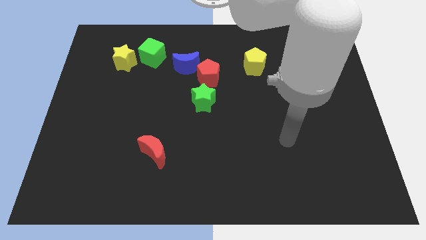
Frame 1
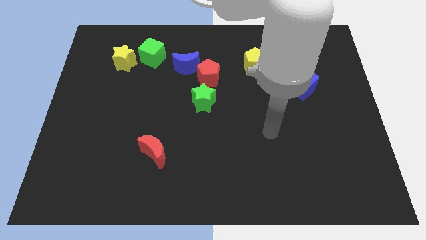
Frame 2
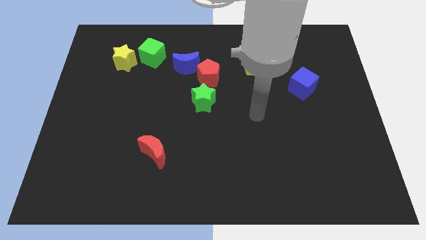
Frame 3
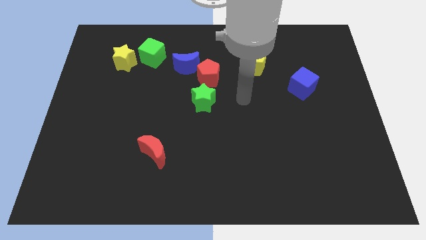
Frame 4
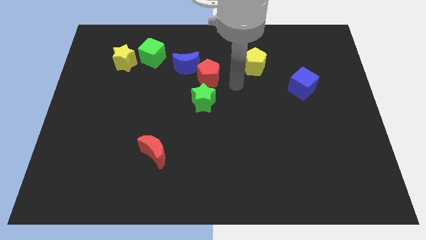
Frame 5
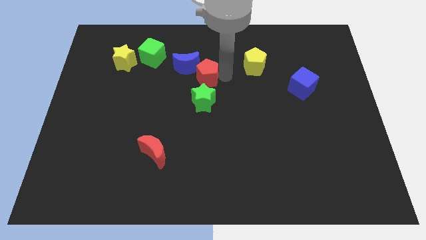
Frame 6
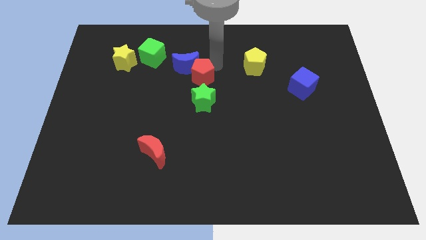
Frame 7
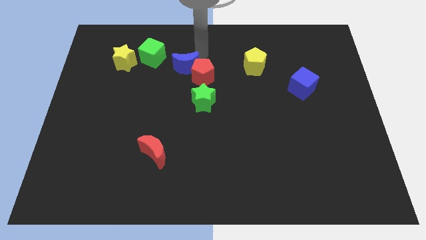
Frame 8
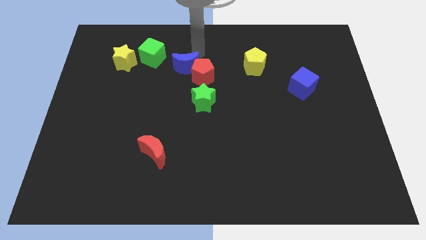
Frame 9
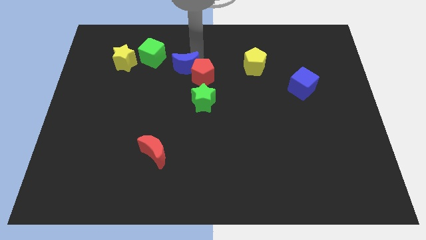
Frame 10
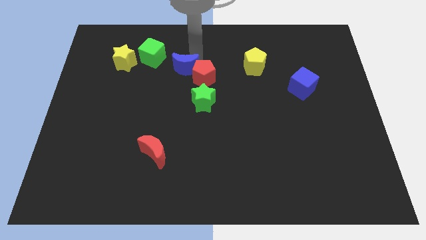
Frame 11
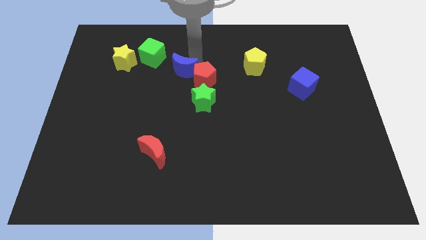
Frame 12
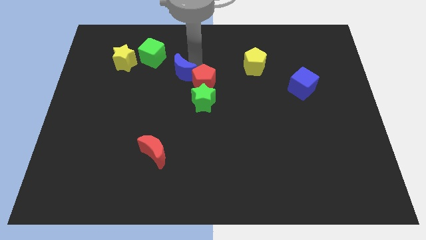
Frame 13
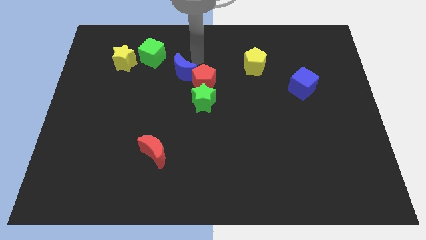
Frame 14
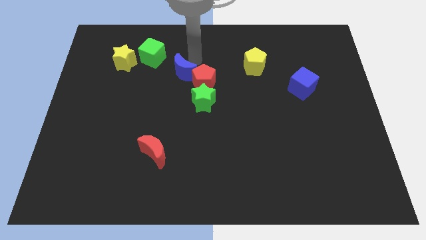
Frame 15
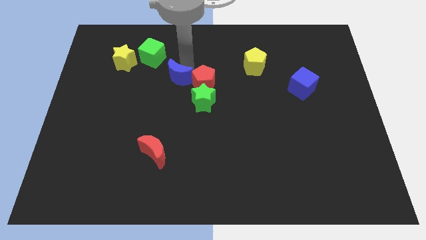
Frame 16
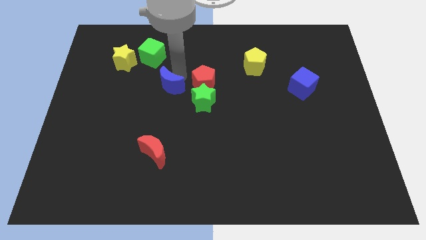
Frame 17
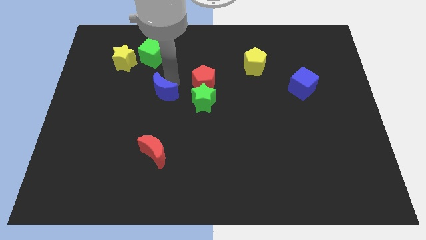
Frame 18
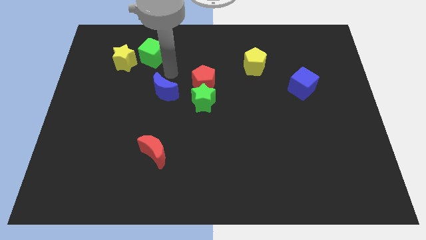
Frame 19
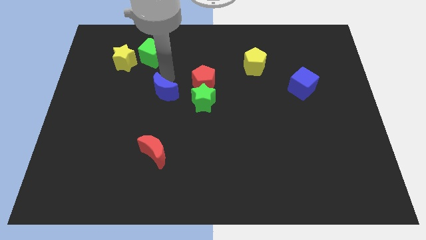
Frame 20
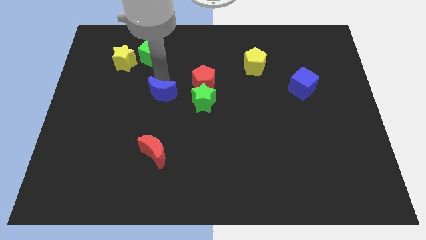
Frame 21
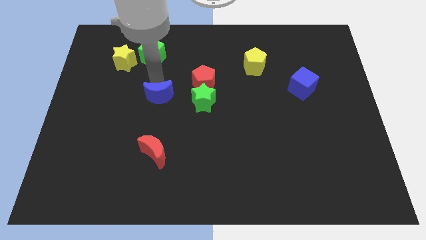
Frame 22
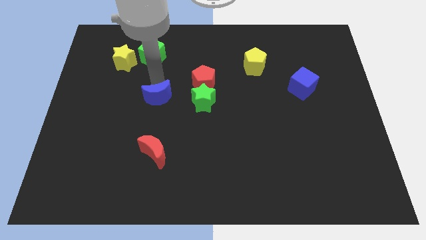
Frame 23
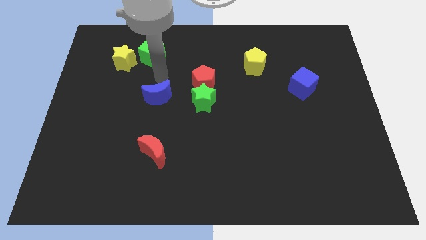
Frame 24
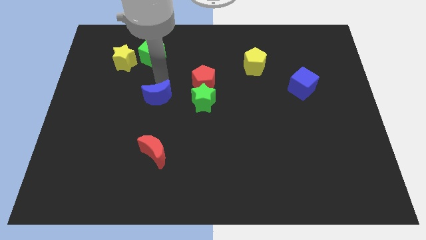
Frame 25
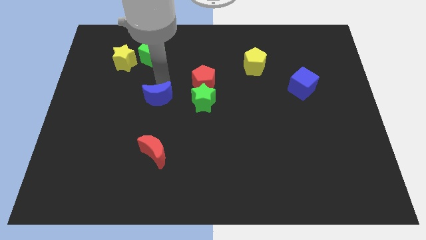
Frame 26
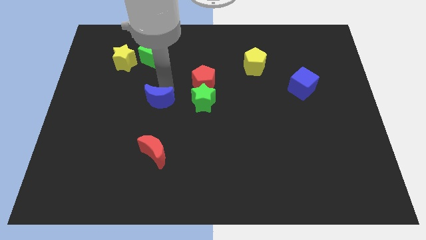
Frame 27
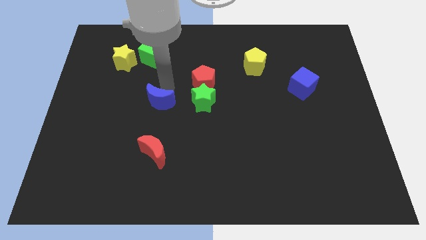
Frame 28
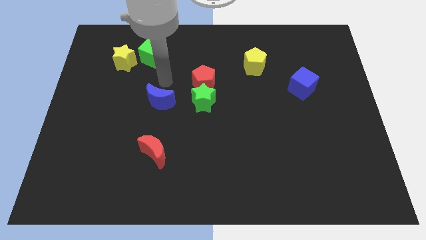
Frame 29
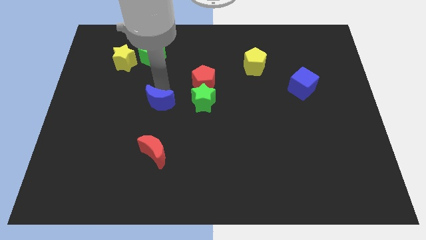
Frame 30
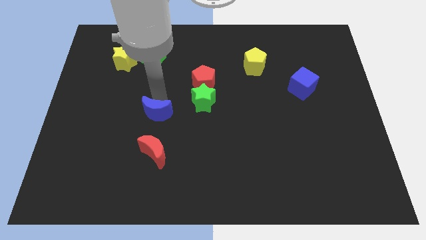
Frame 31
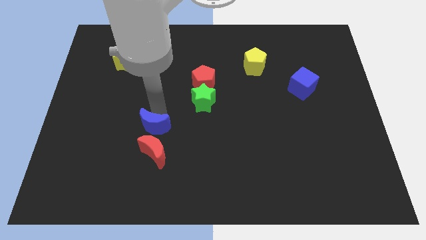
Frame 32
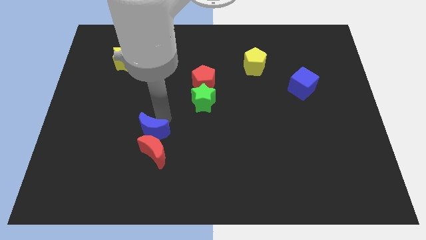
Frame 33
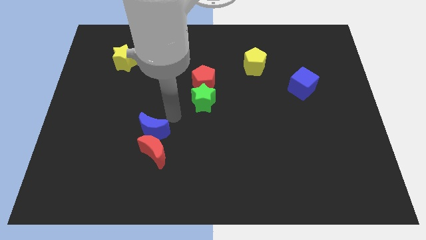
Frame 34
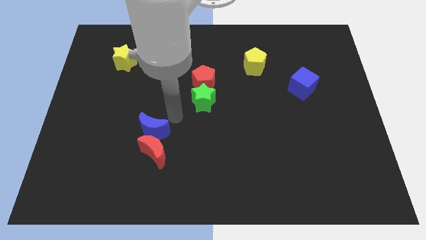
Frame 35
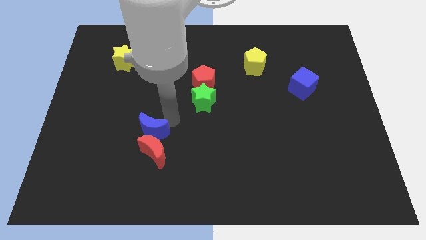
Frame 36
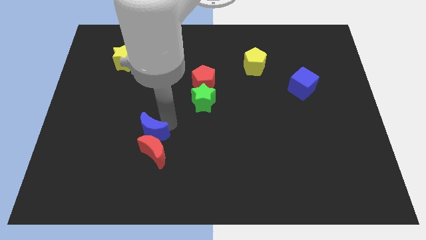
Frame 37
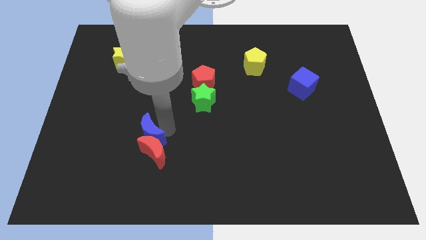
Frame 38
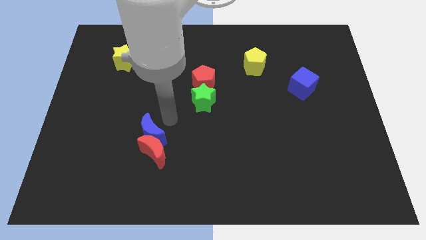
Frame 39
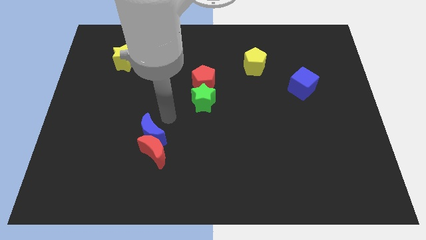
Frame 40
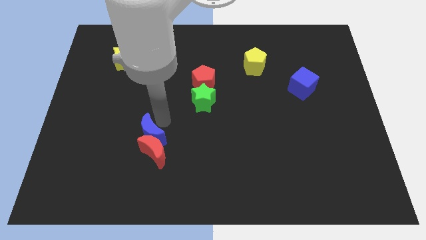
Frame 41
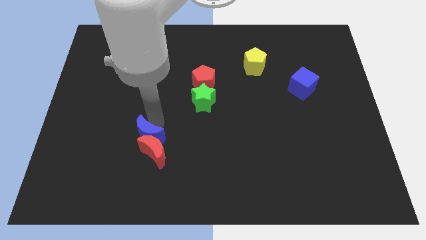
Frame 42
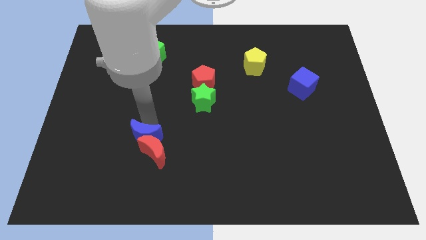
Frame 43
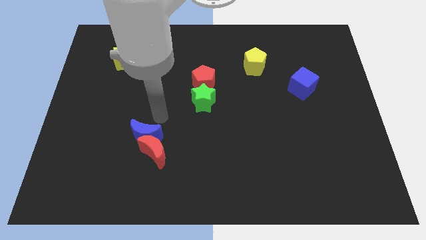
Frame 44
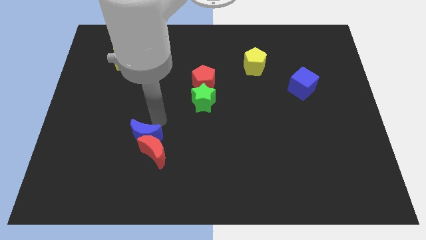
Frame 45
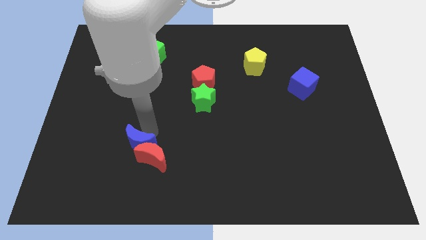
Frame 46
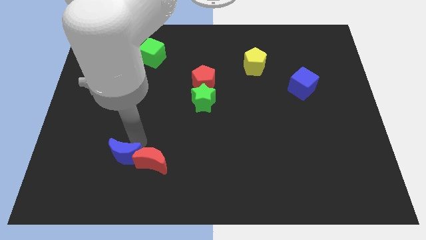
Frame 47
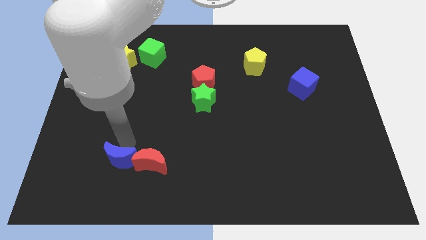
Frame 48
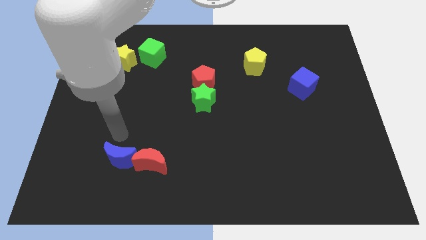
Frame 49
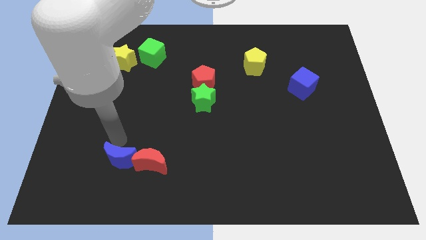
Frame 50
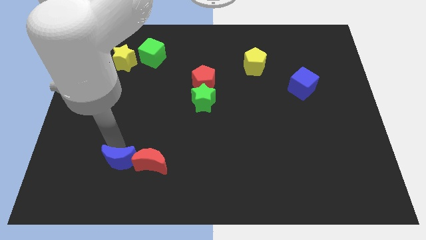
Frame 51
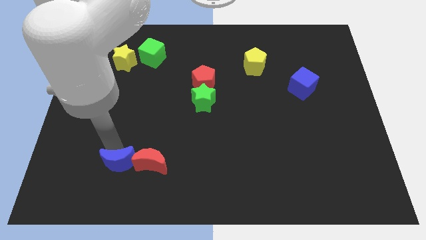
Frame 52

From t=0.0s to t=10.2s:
slide the blue moon to the bottom left of the red moon

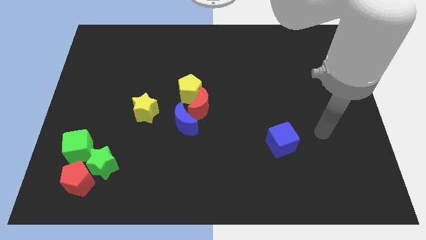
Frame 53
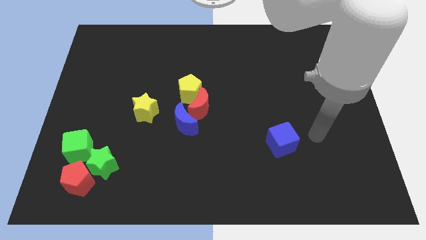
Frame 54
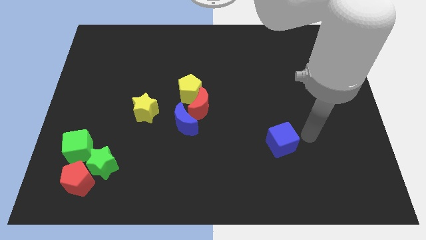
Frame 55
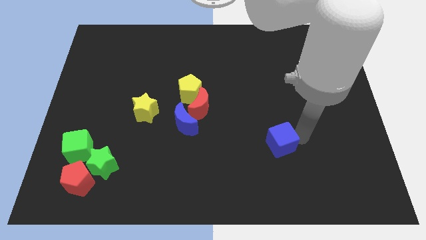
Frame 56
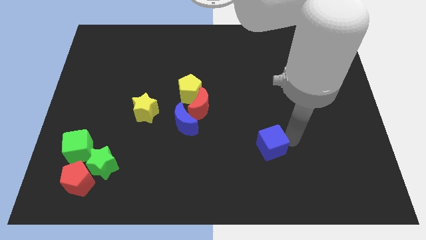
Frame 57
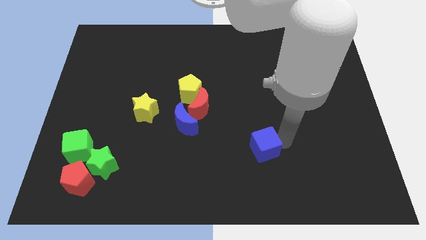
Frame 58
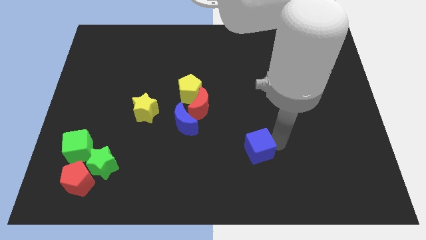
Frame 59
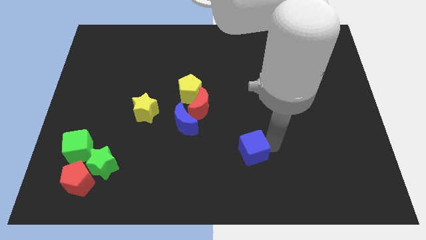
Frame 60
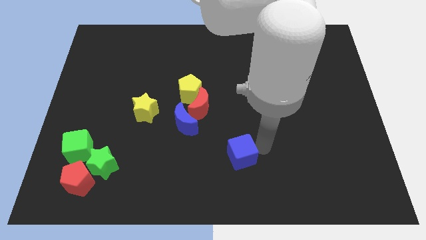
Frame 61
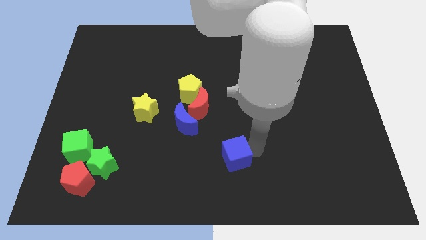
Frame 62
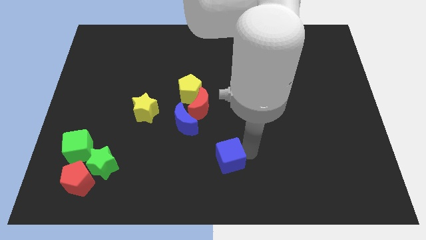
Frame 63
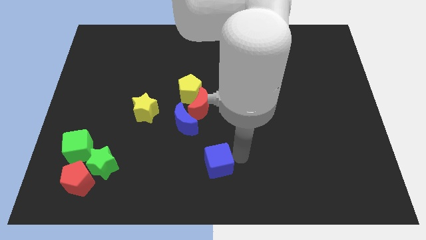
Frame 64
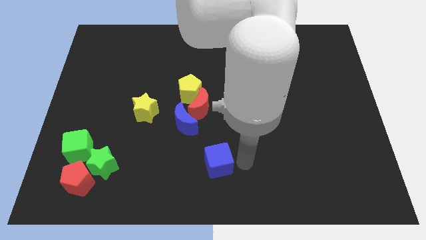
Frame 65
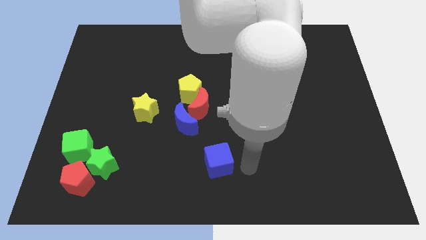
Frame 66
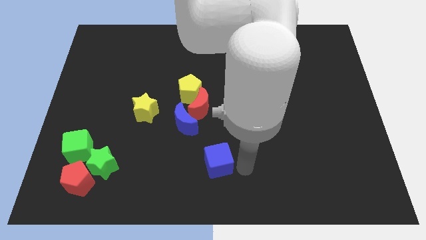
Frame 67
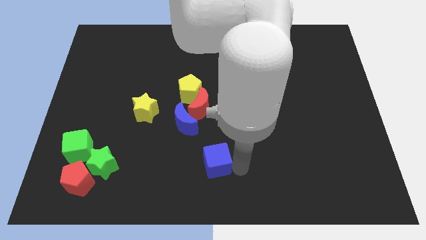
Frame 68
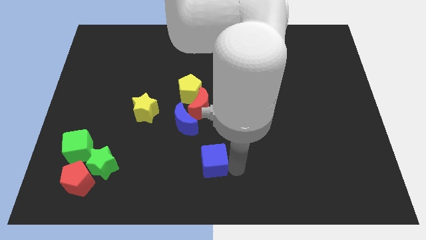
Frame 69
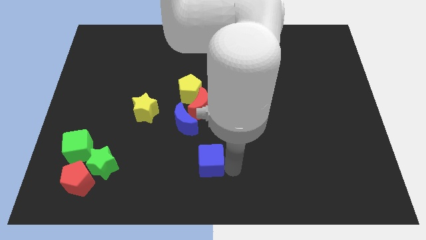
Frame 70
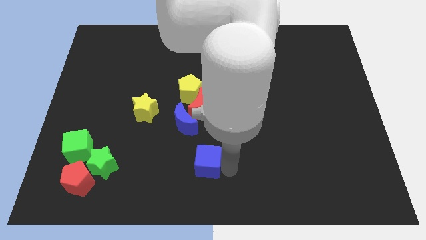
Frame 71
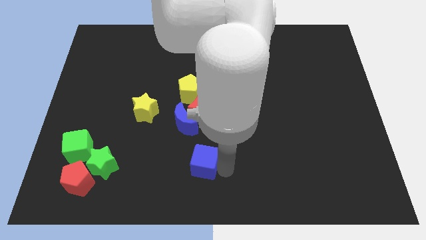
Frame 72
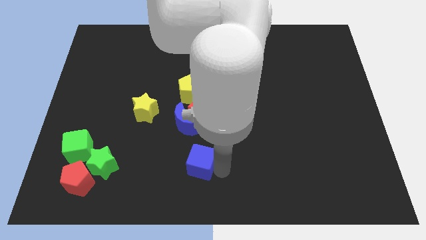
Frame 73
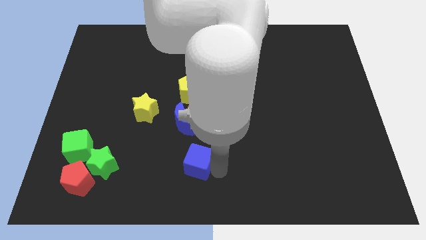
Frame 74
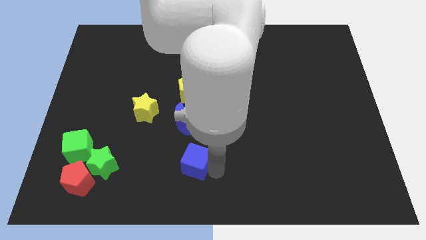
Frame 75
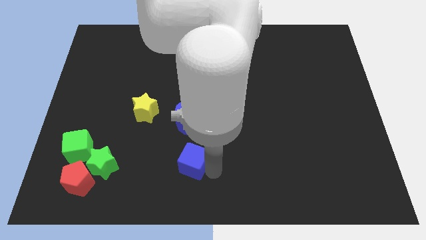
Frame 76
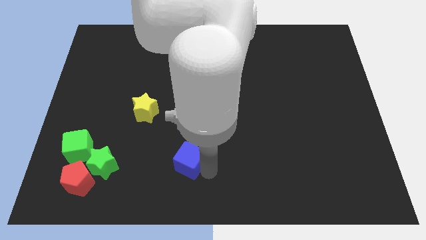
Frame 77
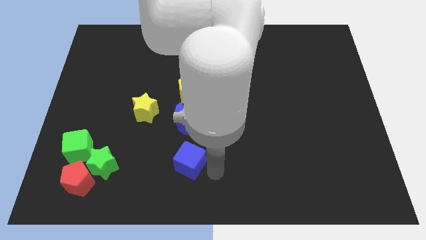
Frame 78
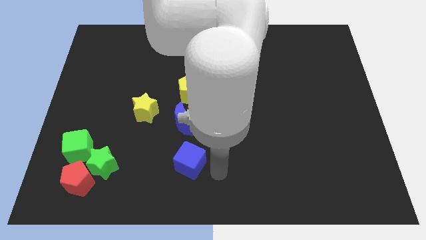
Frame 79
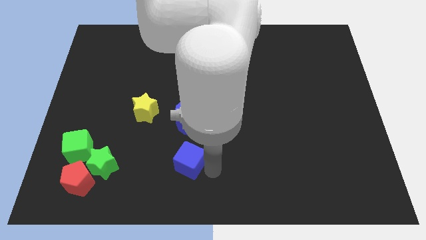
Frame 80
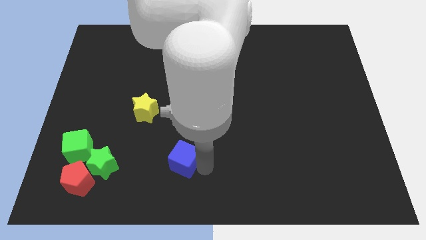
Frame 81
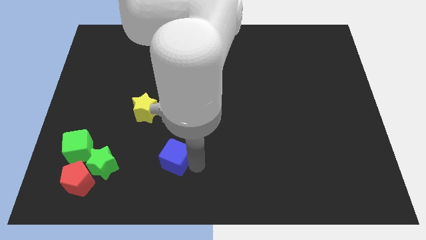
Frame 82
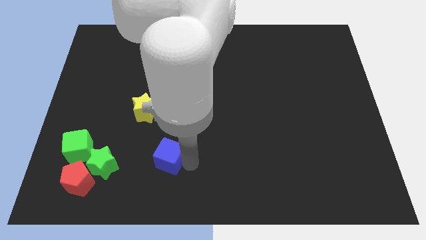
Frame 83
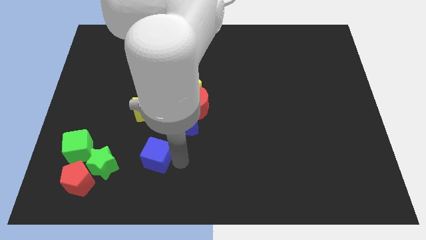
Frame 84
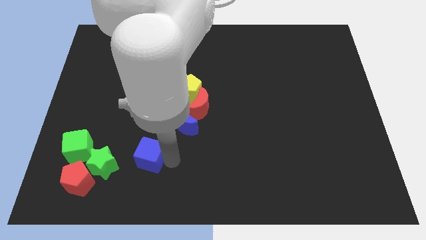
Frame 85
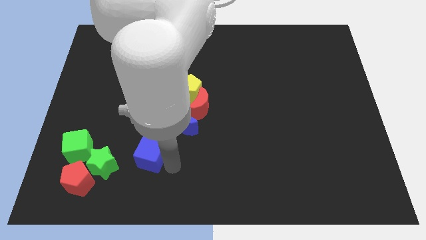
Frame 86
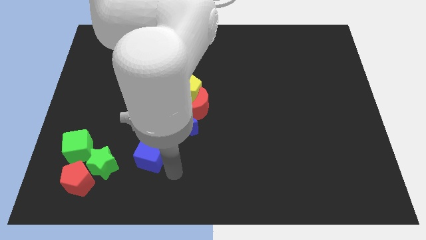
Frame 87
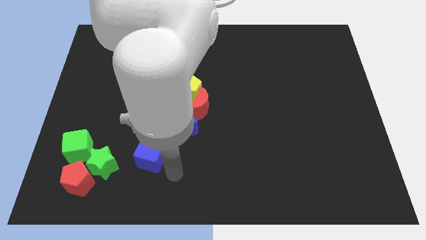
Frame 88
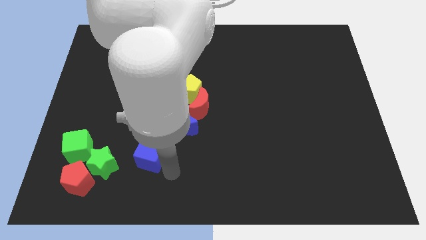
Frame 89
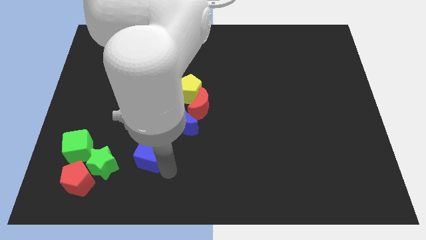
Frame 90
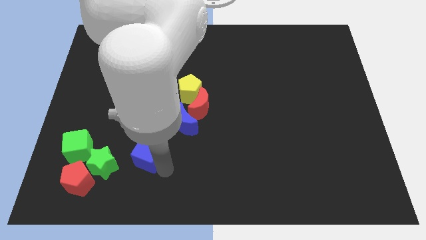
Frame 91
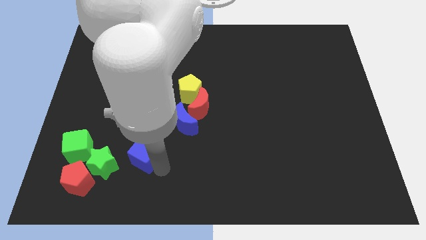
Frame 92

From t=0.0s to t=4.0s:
push the blue cube to the top right side of the green star
